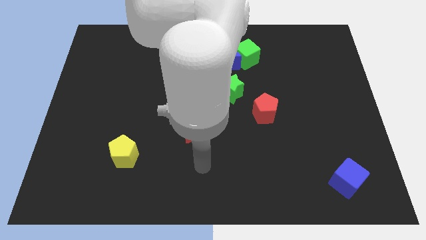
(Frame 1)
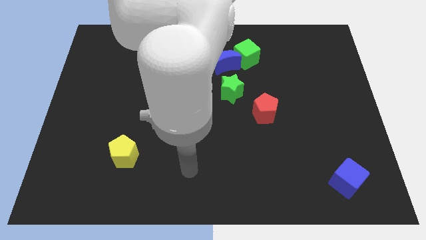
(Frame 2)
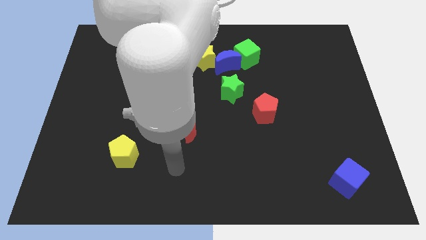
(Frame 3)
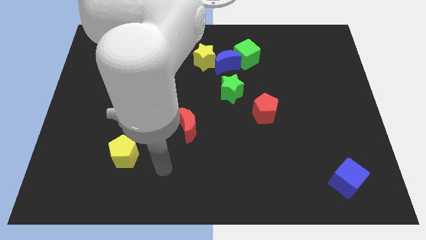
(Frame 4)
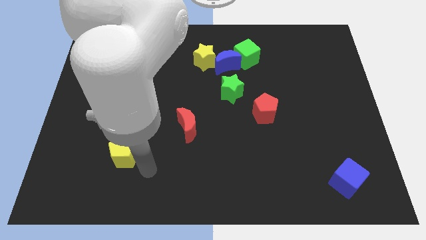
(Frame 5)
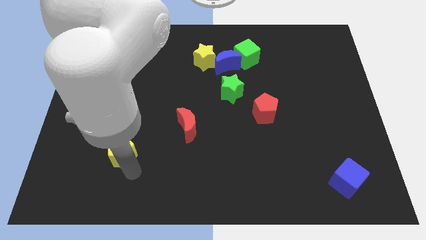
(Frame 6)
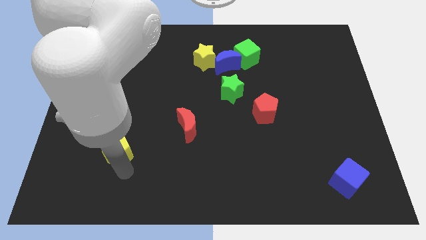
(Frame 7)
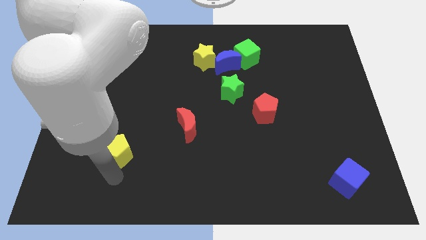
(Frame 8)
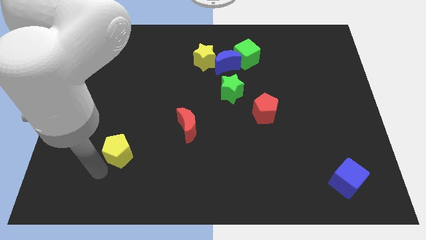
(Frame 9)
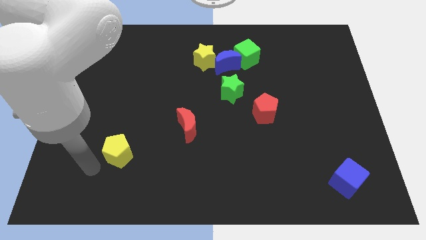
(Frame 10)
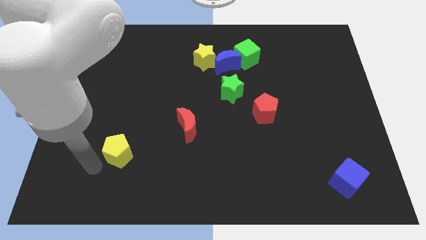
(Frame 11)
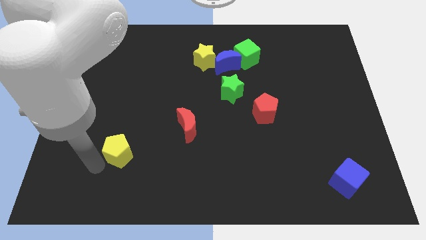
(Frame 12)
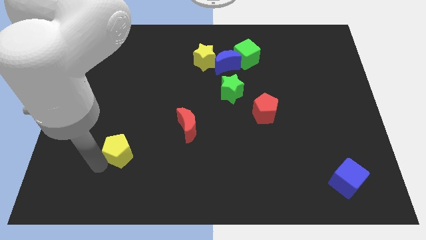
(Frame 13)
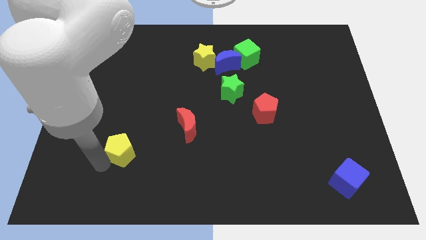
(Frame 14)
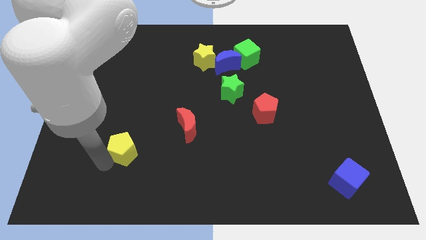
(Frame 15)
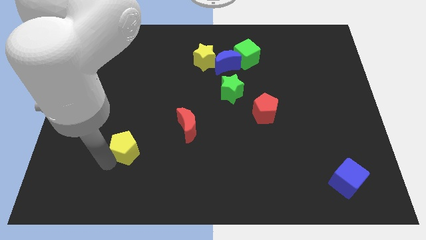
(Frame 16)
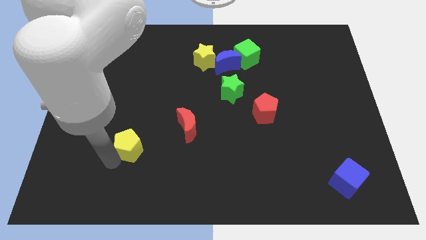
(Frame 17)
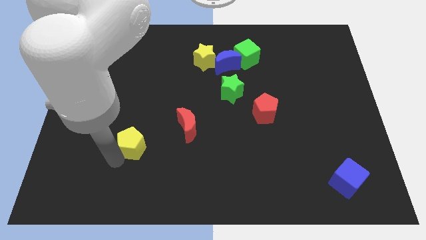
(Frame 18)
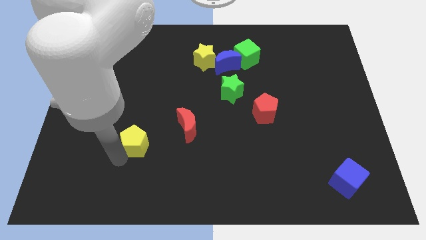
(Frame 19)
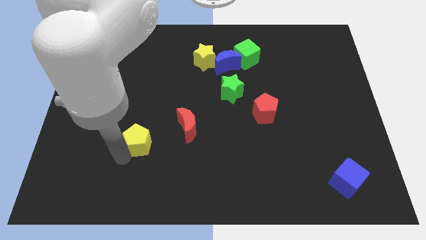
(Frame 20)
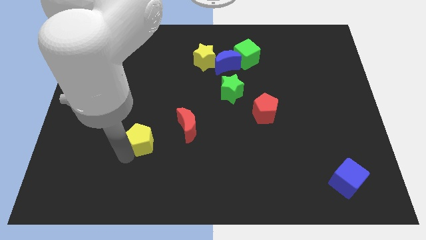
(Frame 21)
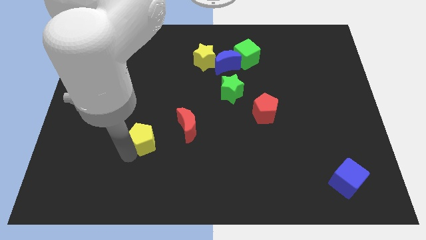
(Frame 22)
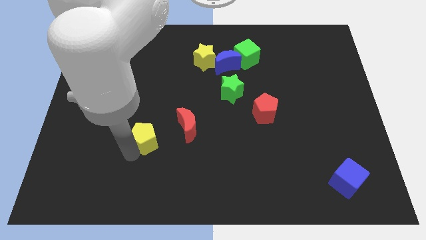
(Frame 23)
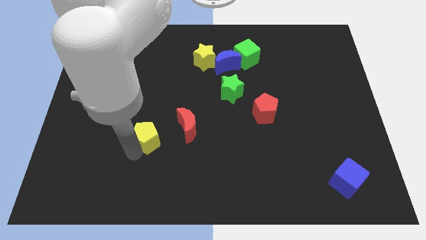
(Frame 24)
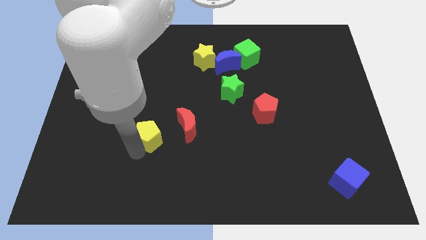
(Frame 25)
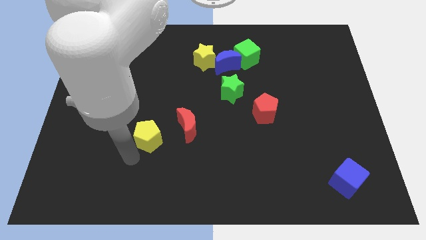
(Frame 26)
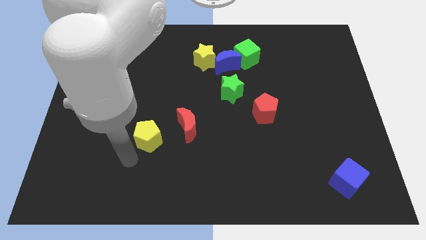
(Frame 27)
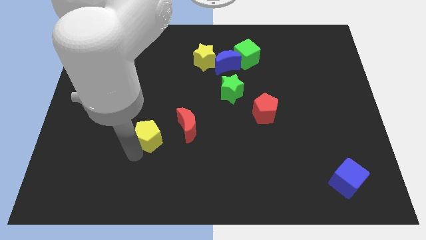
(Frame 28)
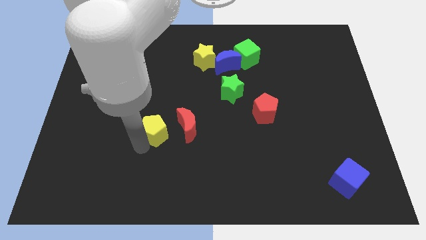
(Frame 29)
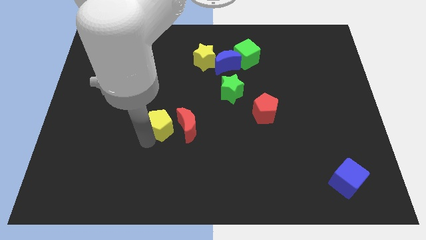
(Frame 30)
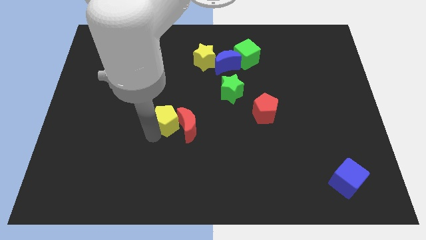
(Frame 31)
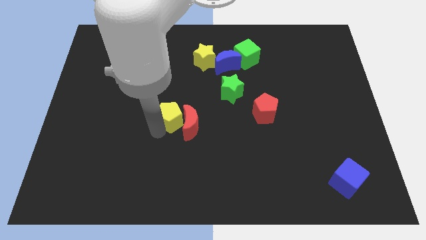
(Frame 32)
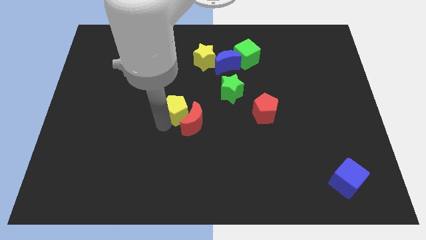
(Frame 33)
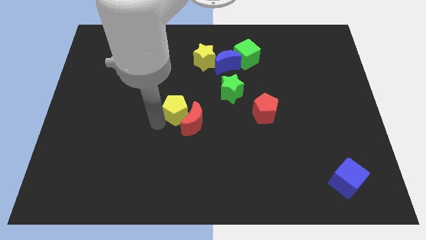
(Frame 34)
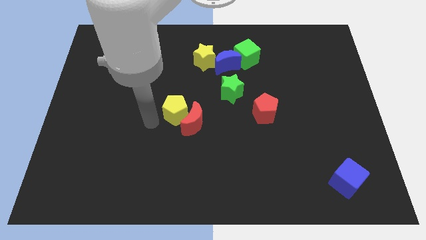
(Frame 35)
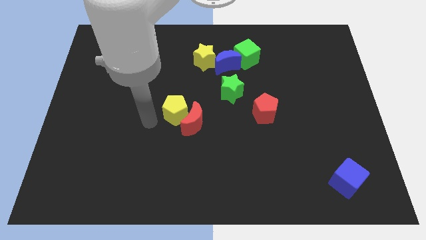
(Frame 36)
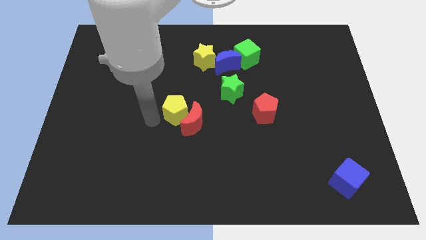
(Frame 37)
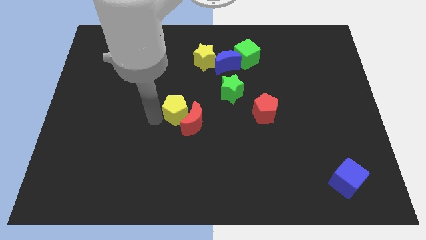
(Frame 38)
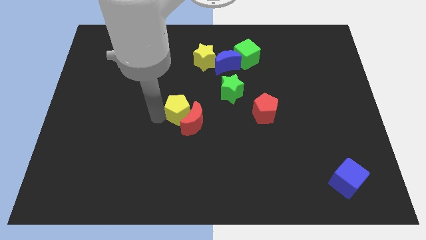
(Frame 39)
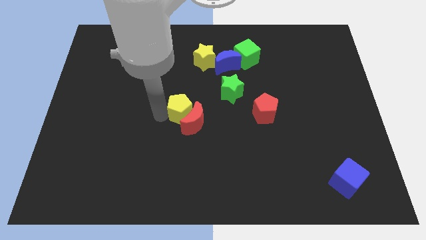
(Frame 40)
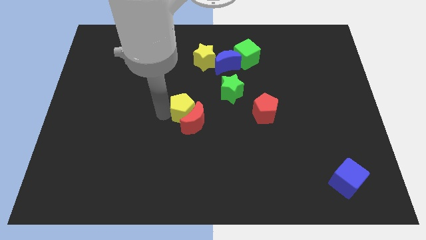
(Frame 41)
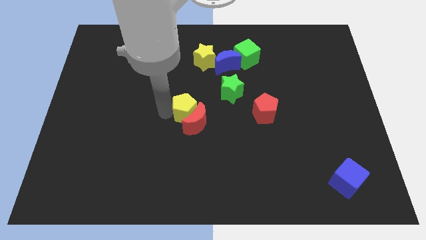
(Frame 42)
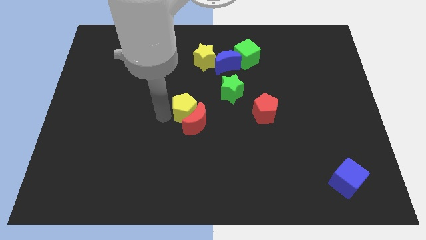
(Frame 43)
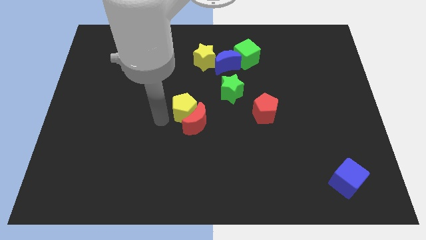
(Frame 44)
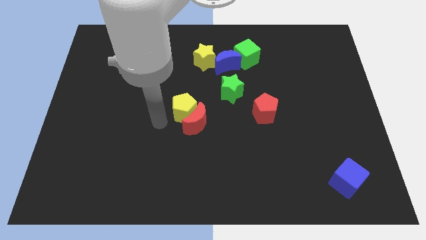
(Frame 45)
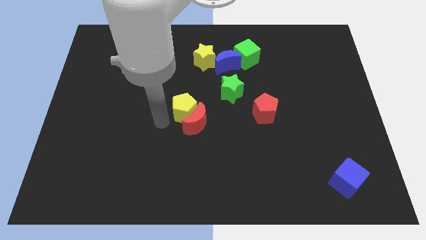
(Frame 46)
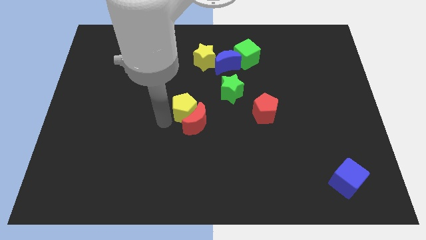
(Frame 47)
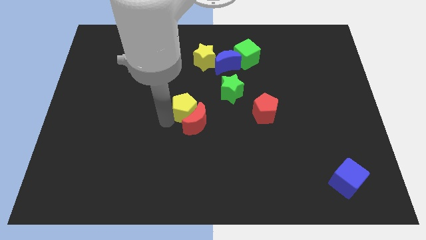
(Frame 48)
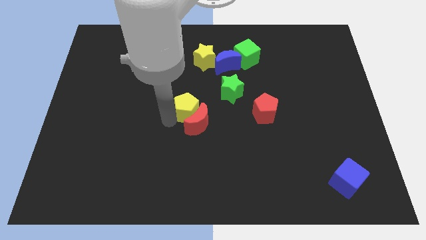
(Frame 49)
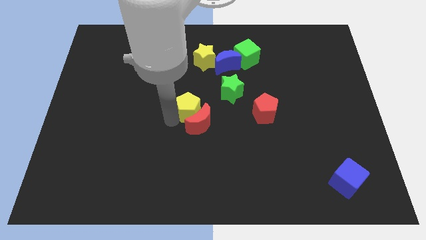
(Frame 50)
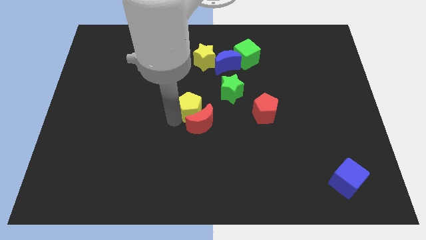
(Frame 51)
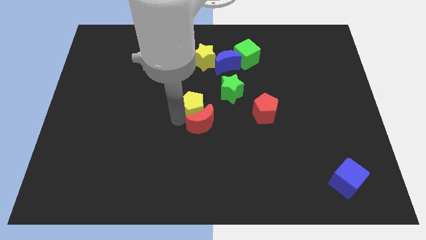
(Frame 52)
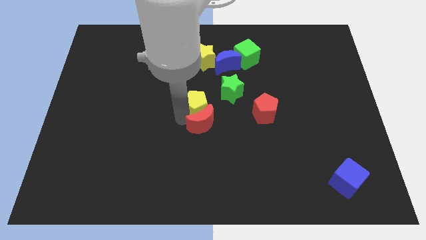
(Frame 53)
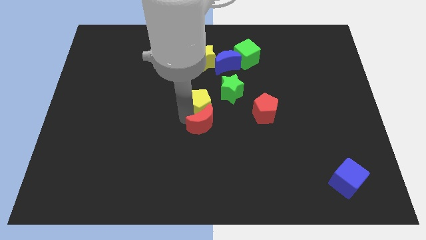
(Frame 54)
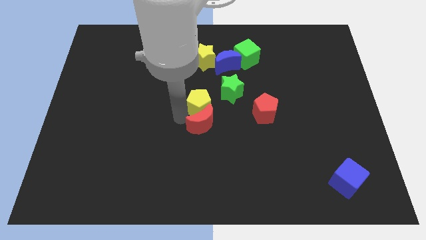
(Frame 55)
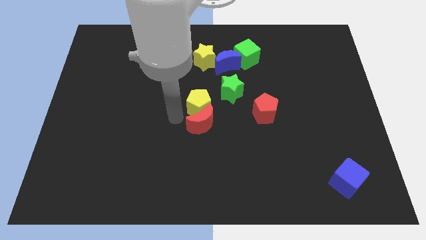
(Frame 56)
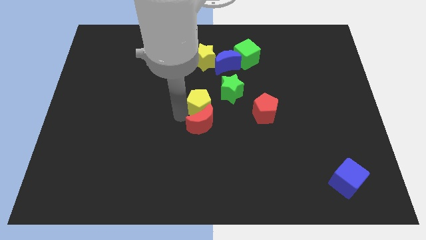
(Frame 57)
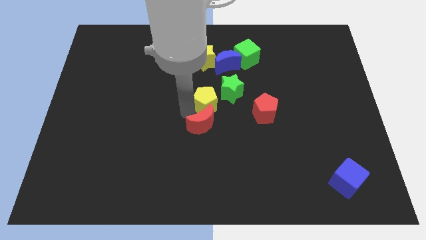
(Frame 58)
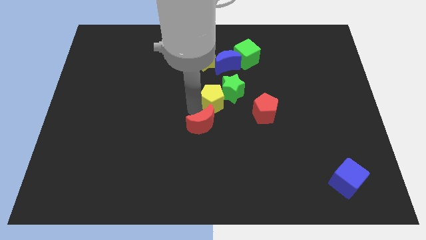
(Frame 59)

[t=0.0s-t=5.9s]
put the yellow pentagon below the blue moon

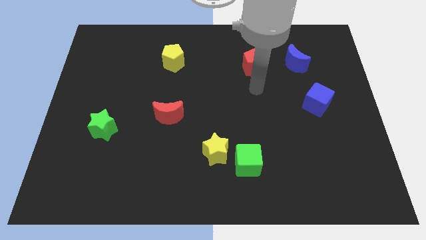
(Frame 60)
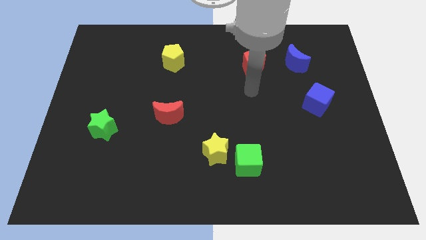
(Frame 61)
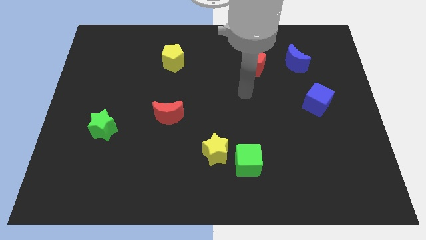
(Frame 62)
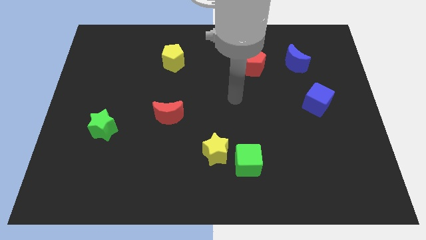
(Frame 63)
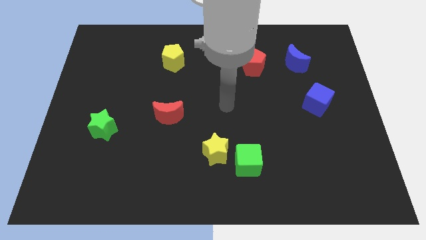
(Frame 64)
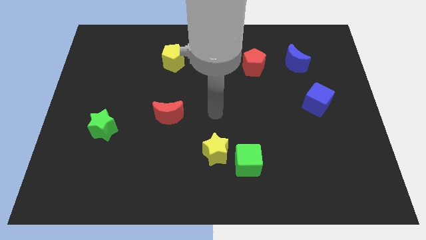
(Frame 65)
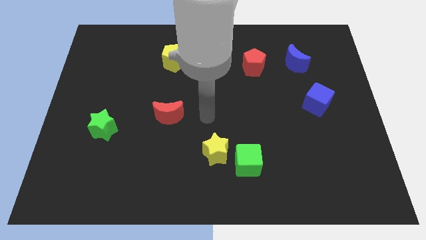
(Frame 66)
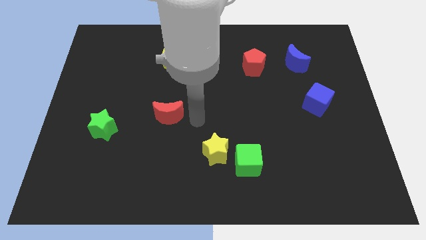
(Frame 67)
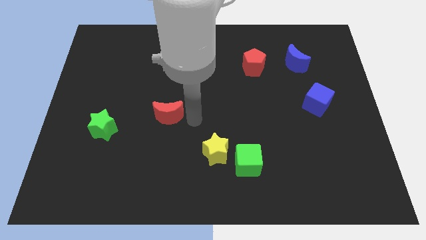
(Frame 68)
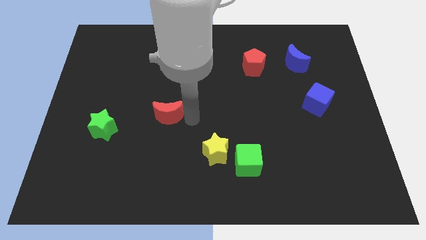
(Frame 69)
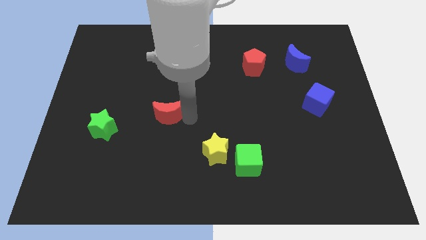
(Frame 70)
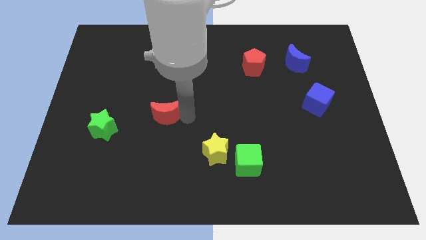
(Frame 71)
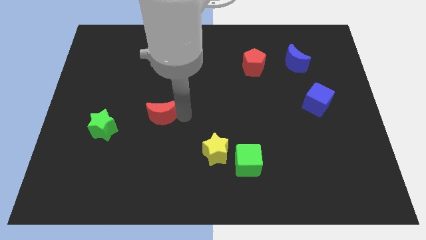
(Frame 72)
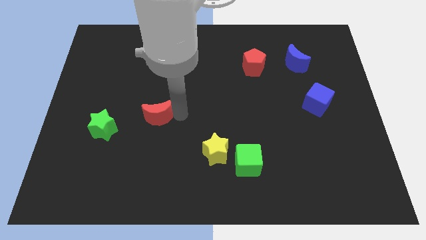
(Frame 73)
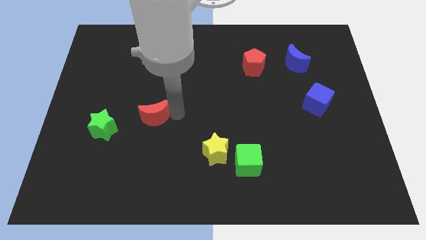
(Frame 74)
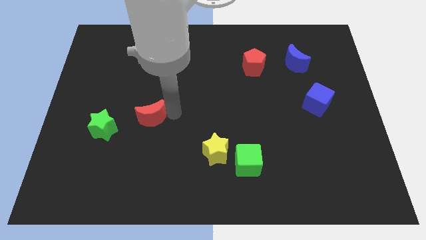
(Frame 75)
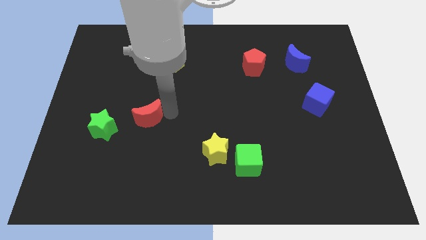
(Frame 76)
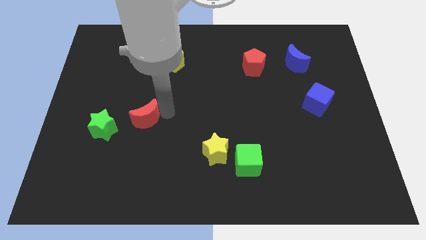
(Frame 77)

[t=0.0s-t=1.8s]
slide the red moon to the top right side of the green star

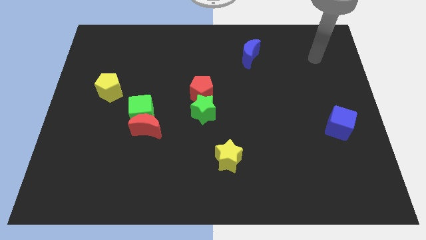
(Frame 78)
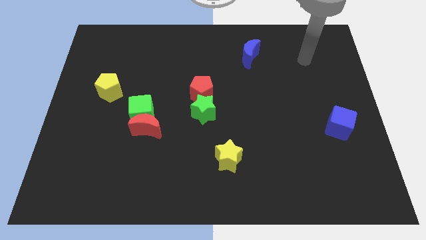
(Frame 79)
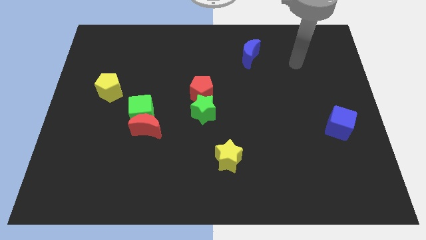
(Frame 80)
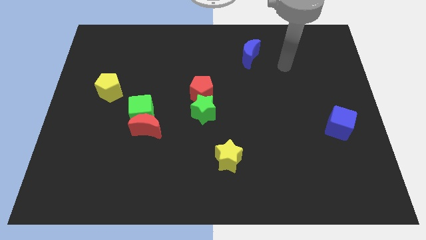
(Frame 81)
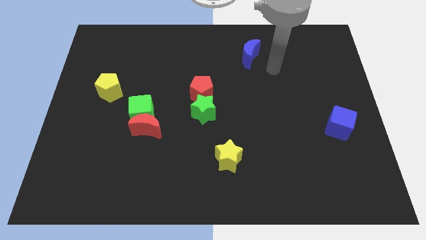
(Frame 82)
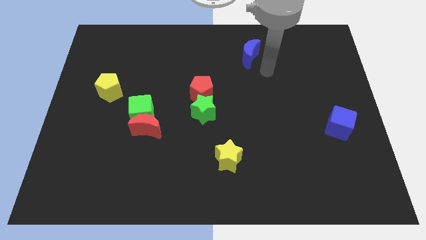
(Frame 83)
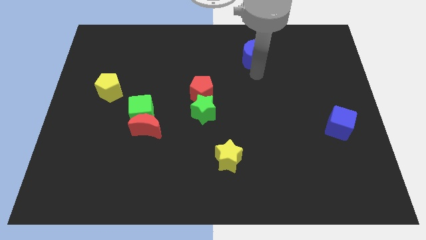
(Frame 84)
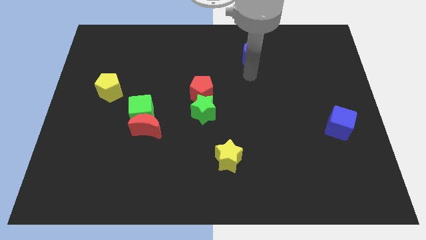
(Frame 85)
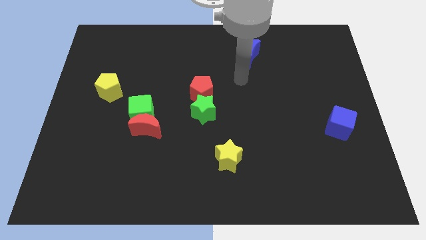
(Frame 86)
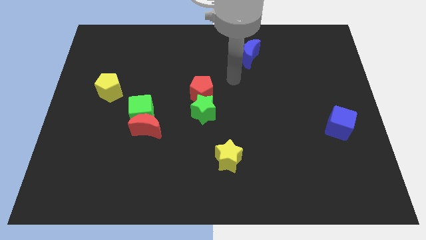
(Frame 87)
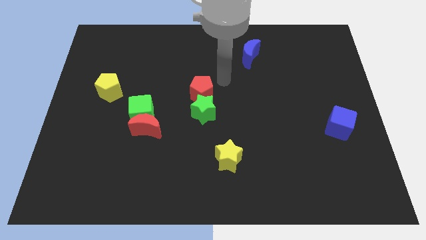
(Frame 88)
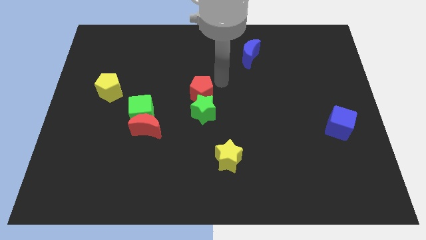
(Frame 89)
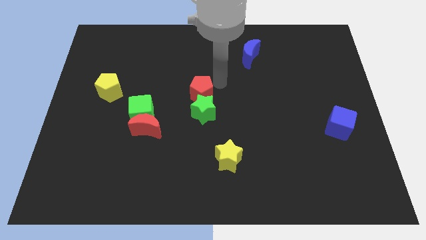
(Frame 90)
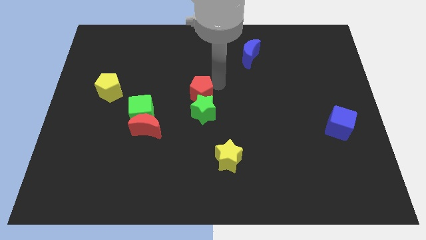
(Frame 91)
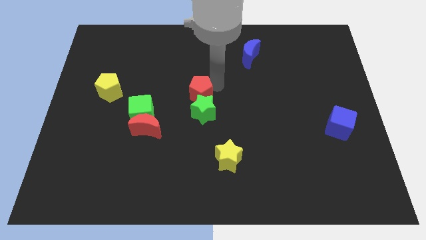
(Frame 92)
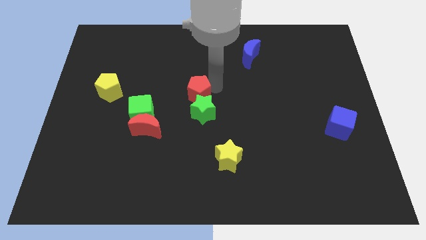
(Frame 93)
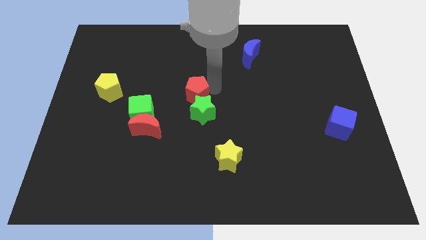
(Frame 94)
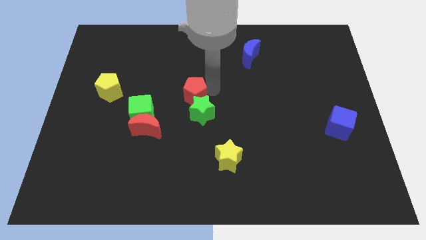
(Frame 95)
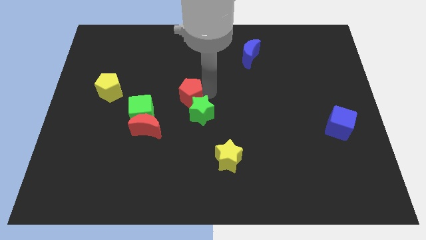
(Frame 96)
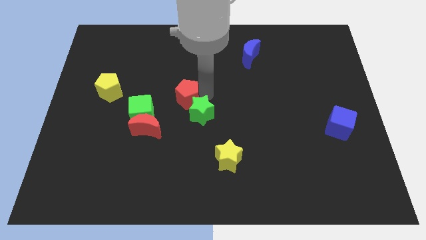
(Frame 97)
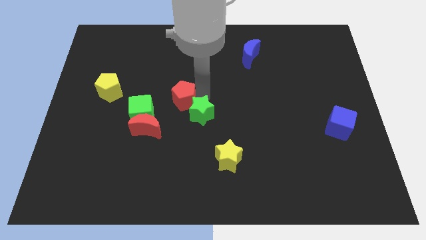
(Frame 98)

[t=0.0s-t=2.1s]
move the red pentagon left of the green star
